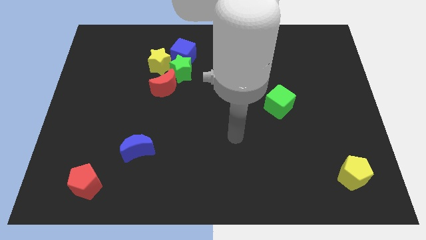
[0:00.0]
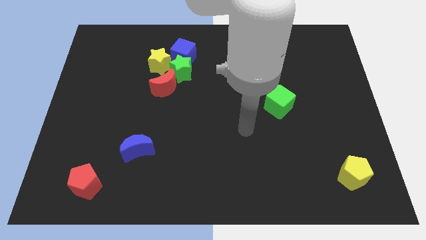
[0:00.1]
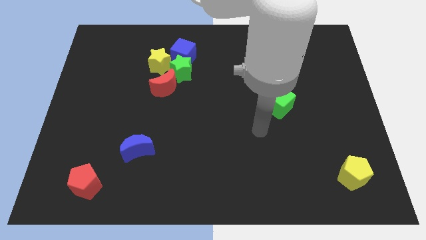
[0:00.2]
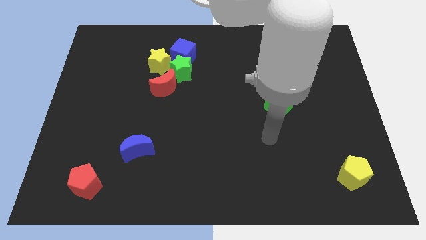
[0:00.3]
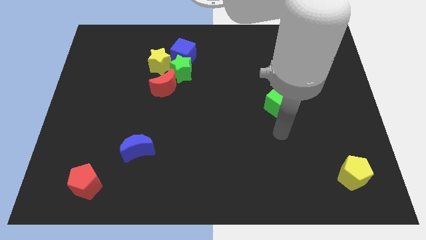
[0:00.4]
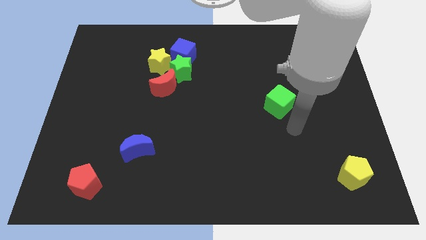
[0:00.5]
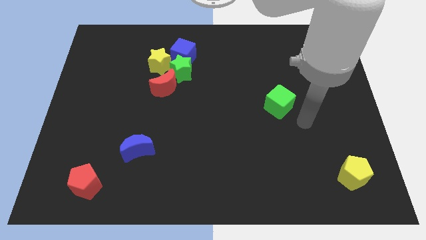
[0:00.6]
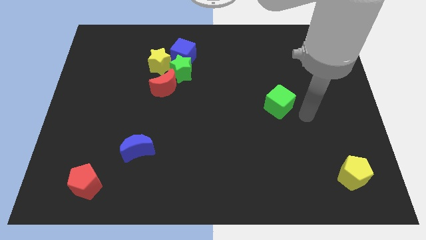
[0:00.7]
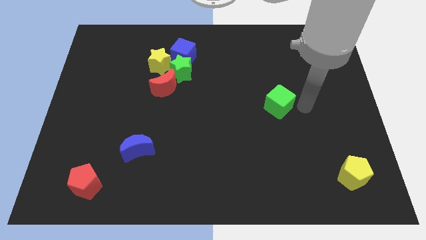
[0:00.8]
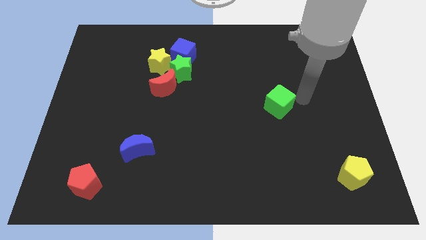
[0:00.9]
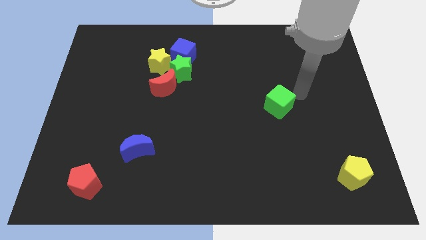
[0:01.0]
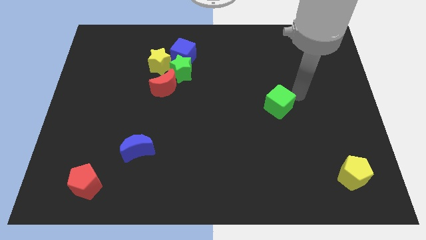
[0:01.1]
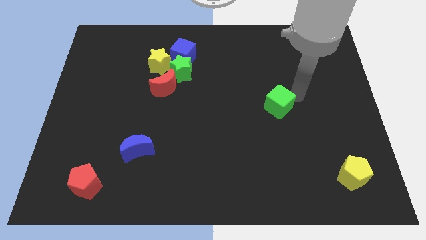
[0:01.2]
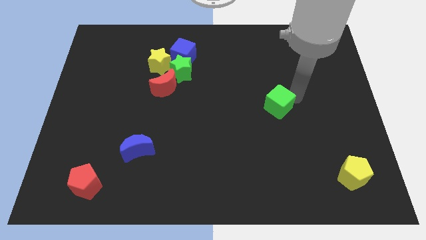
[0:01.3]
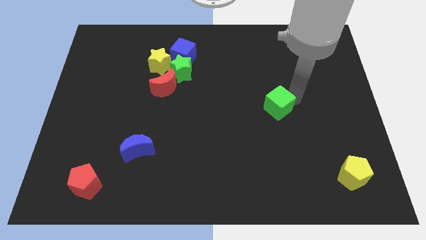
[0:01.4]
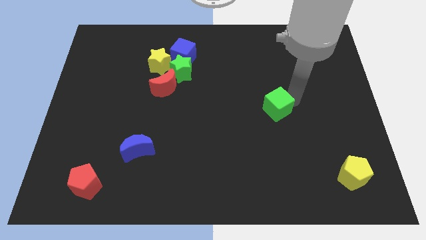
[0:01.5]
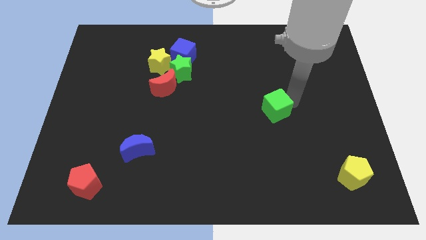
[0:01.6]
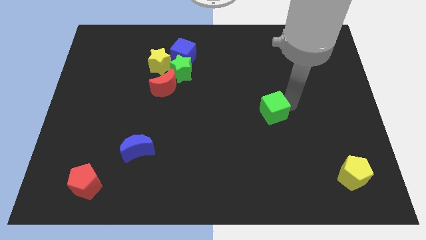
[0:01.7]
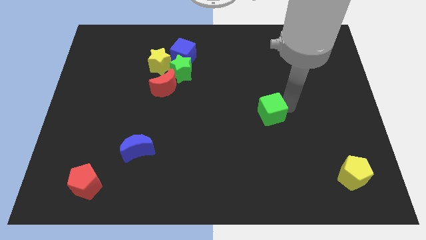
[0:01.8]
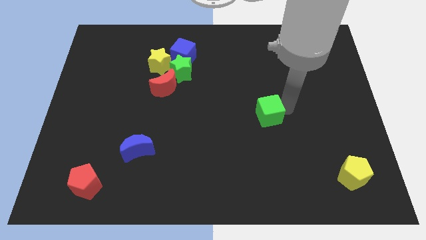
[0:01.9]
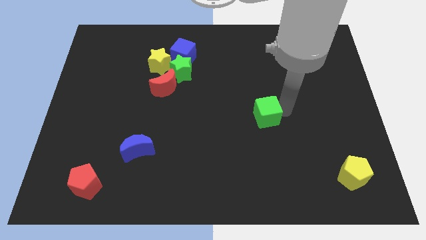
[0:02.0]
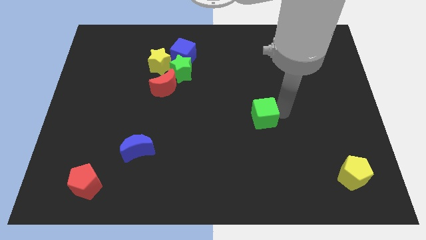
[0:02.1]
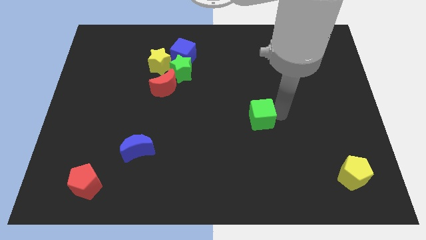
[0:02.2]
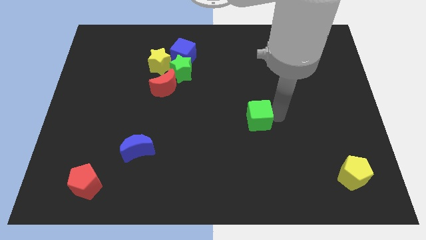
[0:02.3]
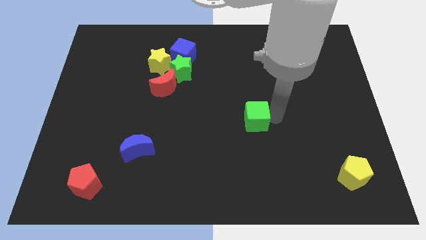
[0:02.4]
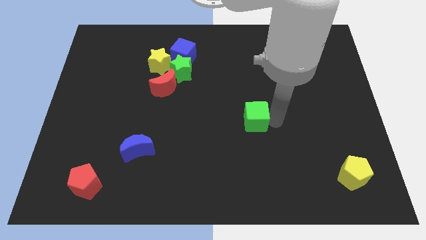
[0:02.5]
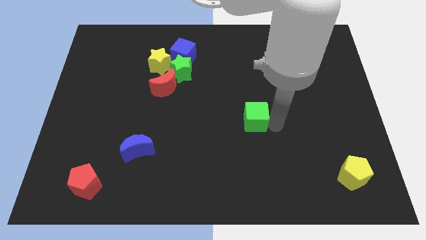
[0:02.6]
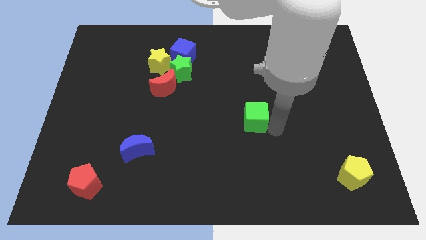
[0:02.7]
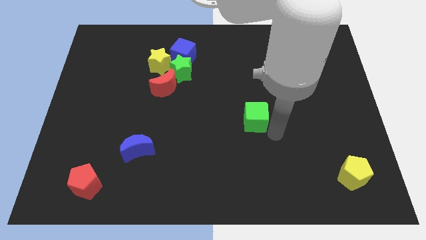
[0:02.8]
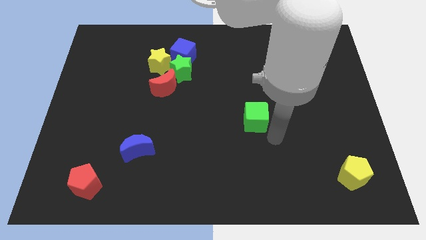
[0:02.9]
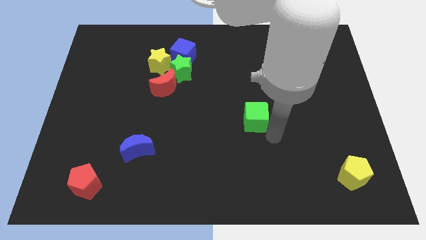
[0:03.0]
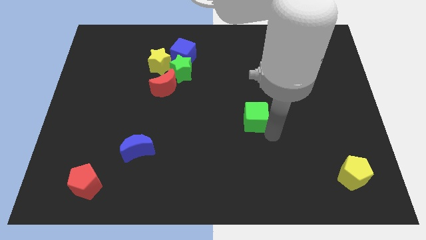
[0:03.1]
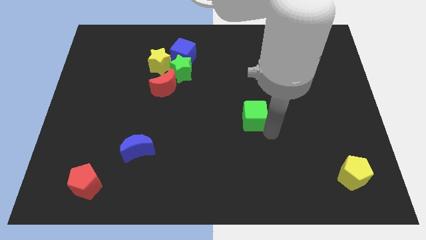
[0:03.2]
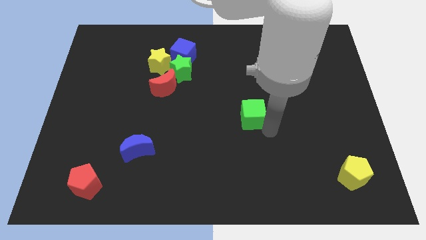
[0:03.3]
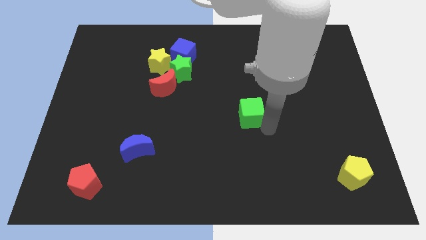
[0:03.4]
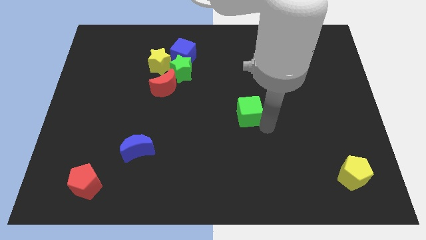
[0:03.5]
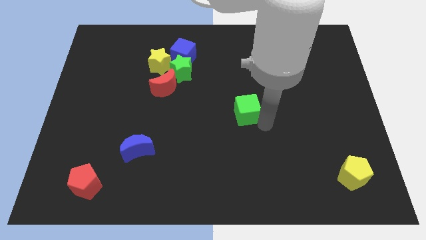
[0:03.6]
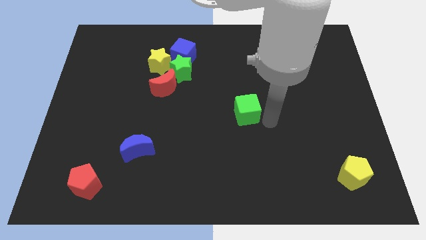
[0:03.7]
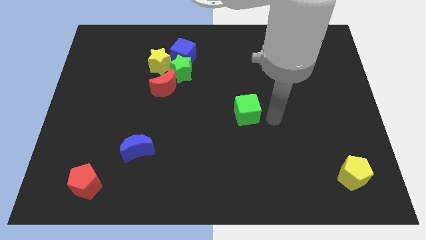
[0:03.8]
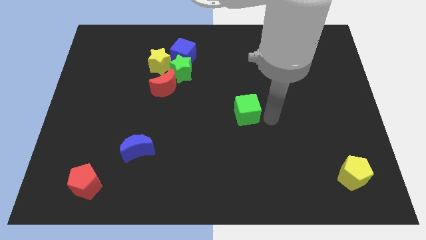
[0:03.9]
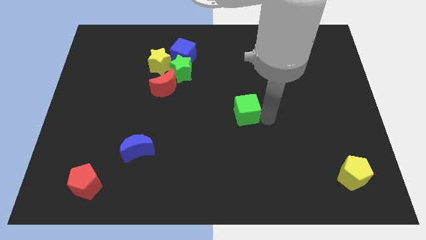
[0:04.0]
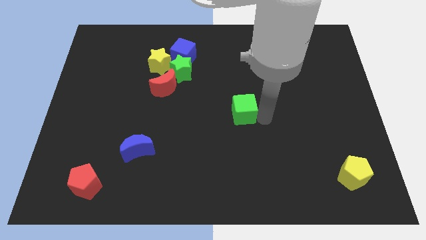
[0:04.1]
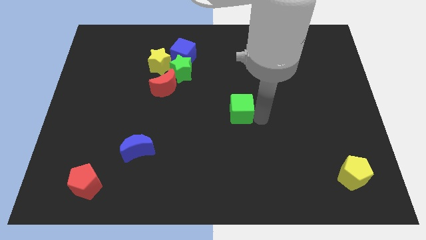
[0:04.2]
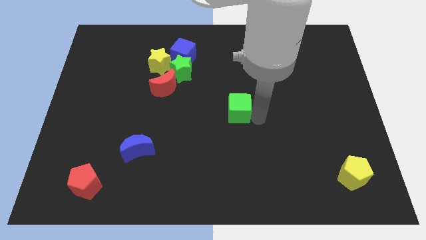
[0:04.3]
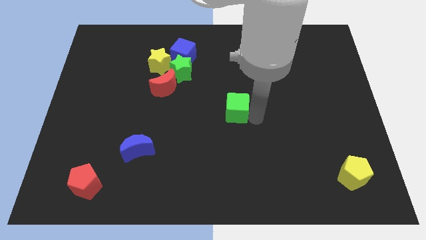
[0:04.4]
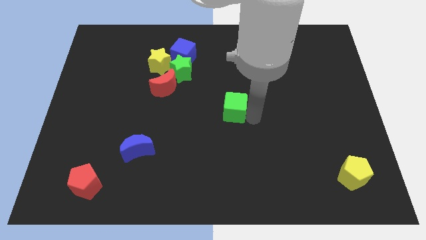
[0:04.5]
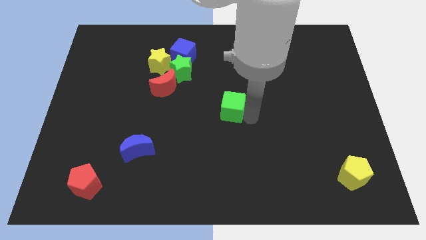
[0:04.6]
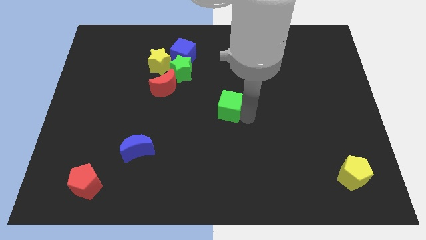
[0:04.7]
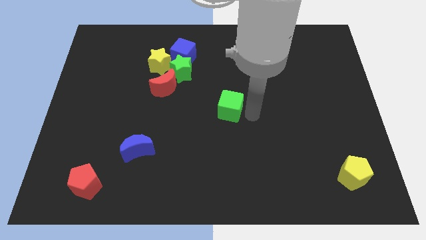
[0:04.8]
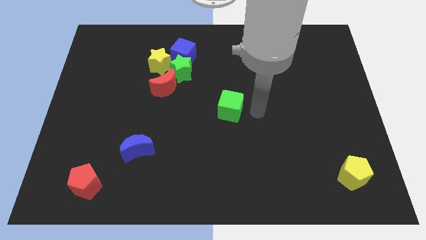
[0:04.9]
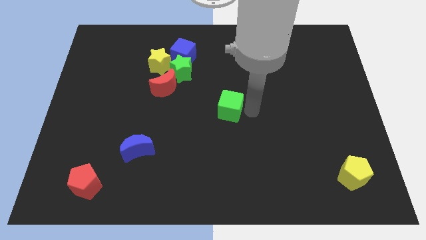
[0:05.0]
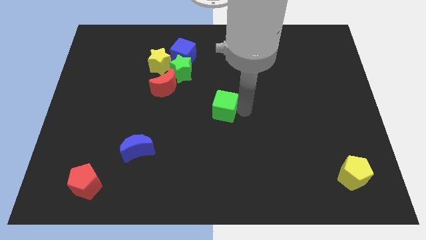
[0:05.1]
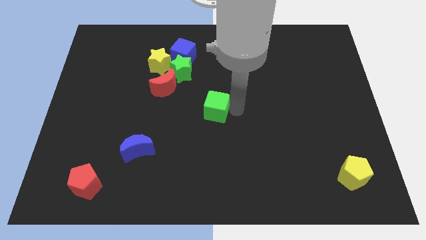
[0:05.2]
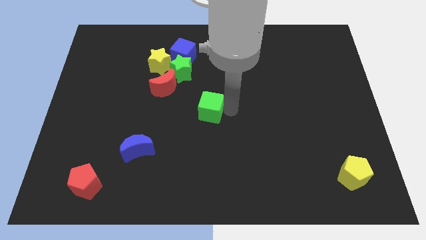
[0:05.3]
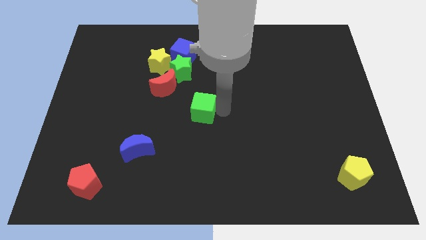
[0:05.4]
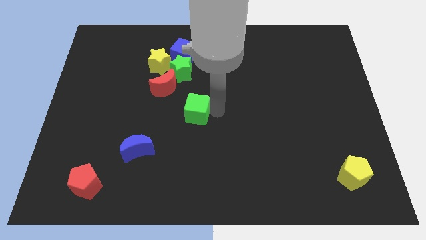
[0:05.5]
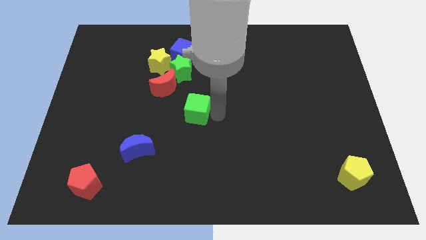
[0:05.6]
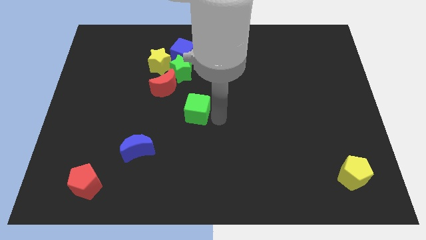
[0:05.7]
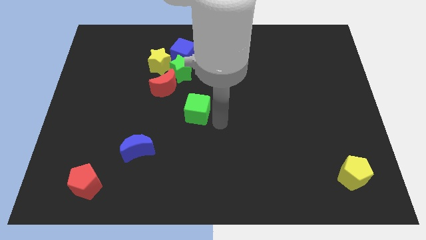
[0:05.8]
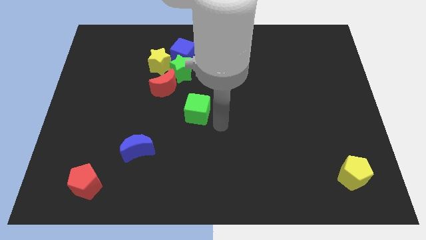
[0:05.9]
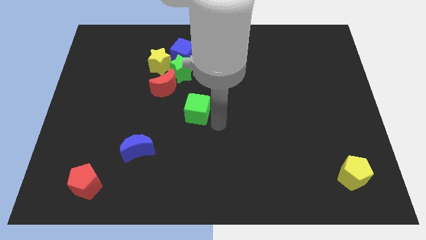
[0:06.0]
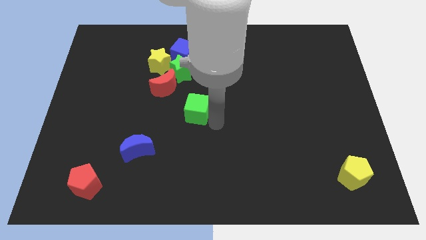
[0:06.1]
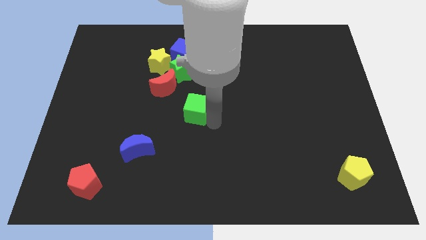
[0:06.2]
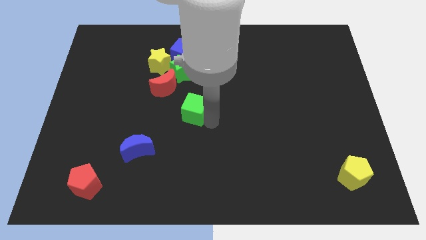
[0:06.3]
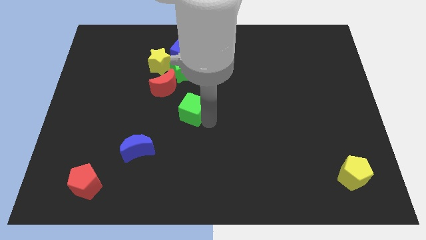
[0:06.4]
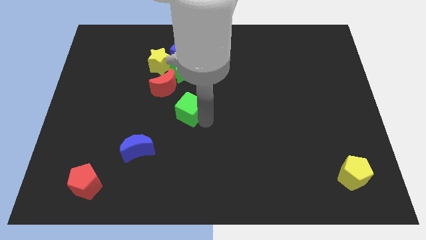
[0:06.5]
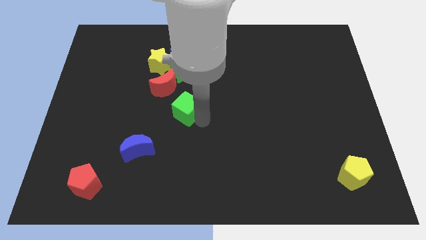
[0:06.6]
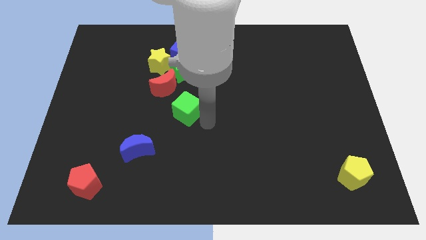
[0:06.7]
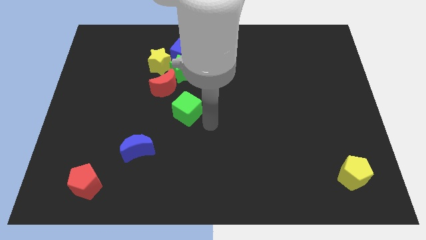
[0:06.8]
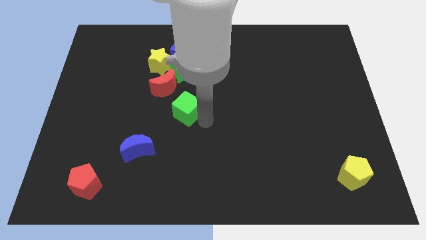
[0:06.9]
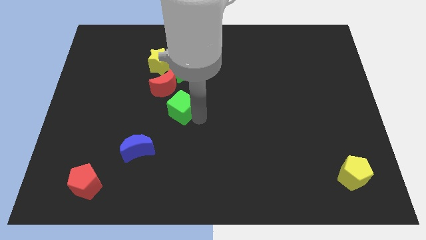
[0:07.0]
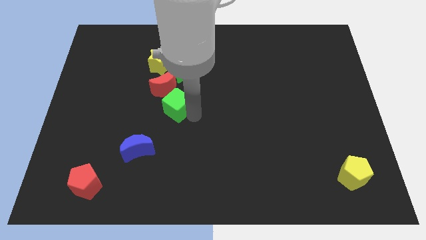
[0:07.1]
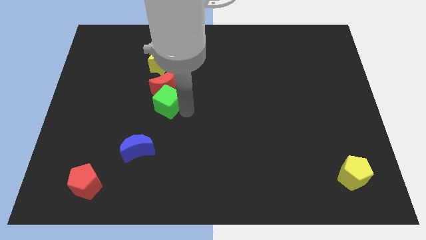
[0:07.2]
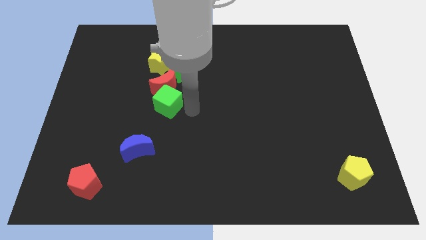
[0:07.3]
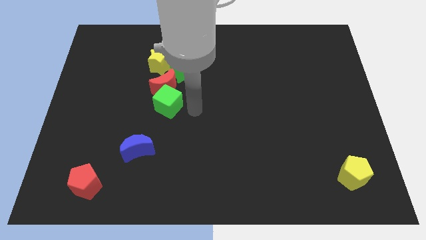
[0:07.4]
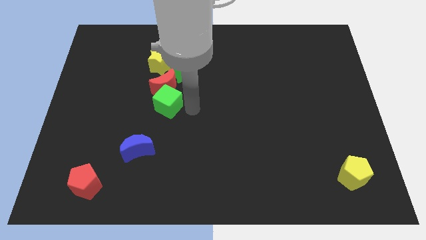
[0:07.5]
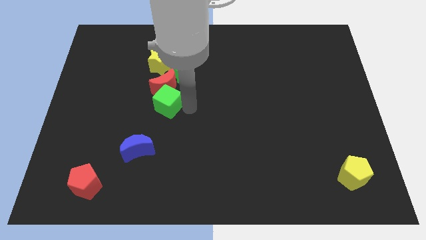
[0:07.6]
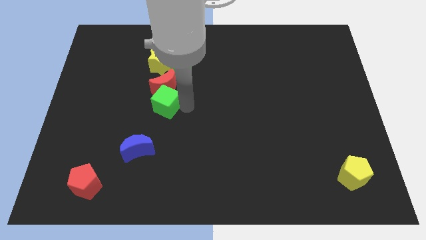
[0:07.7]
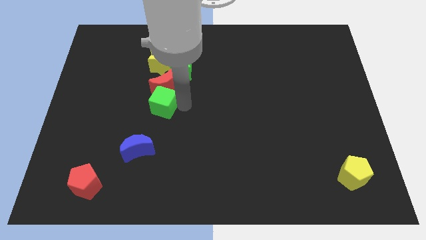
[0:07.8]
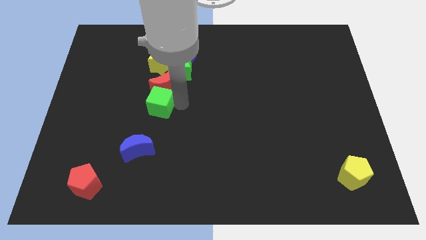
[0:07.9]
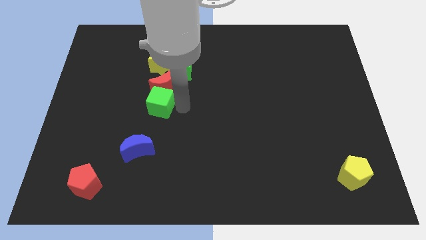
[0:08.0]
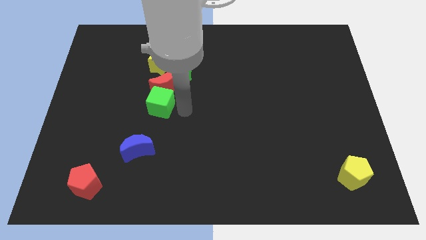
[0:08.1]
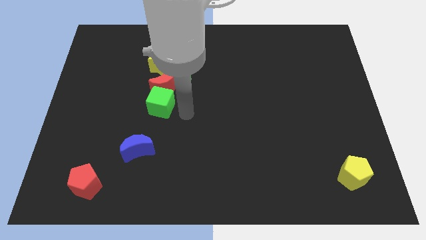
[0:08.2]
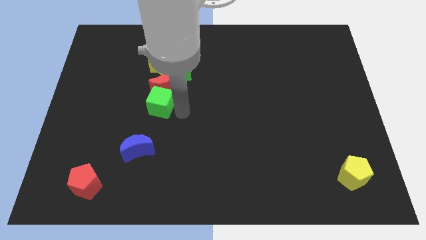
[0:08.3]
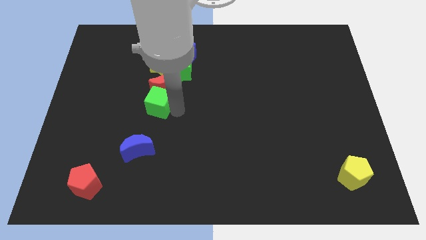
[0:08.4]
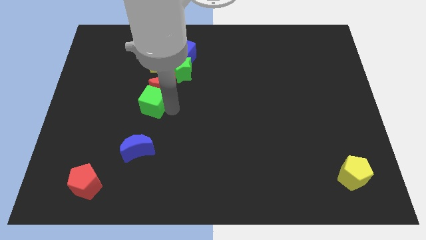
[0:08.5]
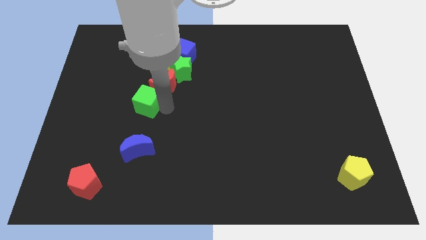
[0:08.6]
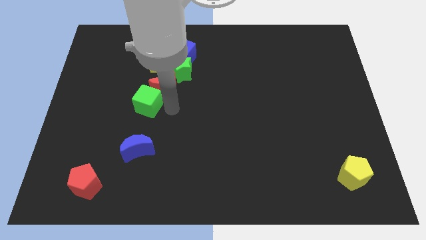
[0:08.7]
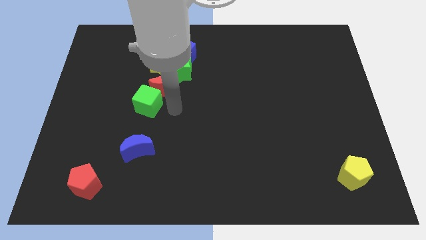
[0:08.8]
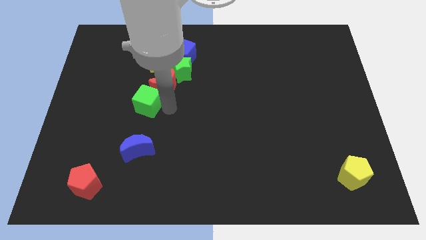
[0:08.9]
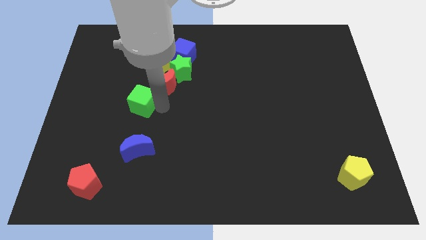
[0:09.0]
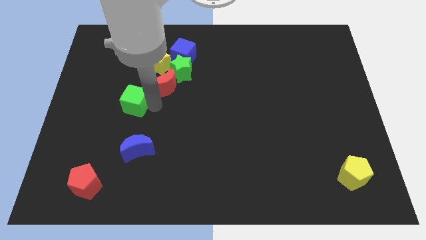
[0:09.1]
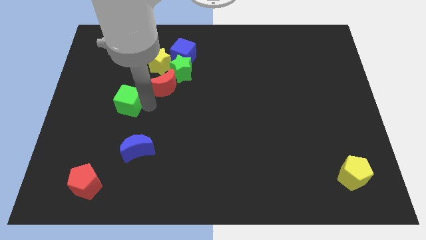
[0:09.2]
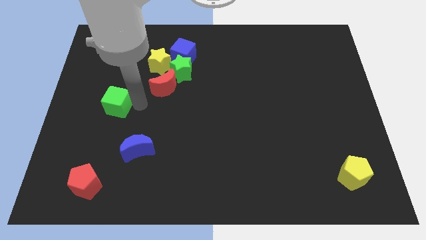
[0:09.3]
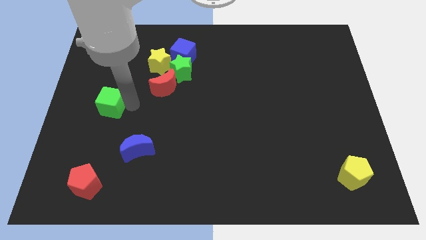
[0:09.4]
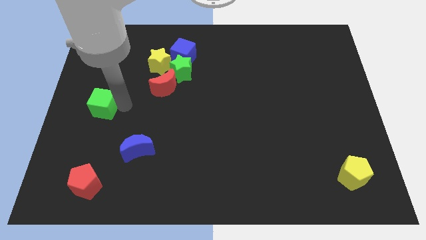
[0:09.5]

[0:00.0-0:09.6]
put the green cube to the center left
